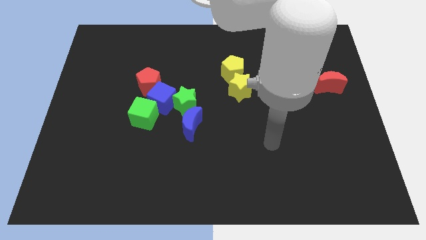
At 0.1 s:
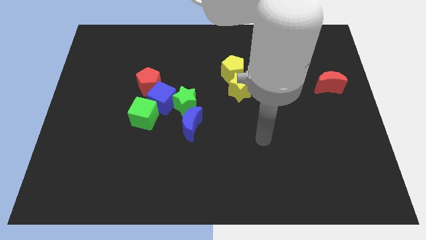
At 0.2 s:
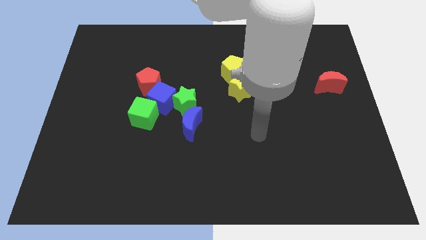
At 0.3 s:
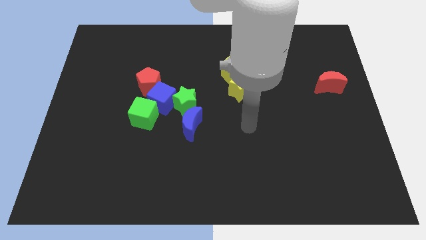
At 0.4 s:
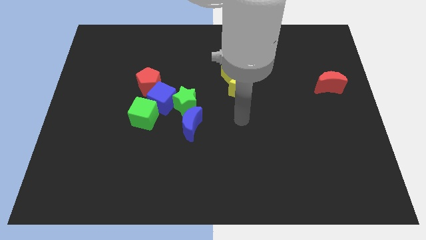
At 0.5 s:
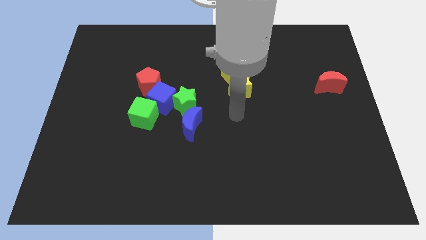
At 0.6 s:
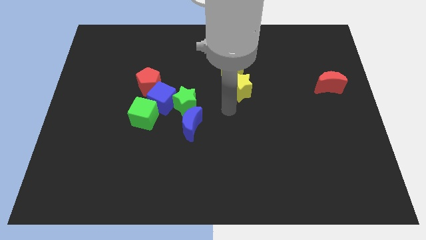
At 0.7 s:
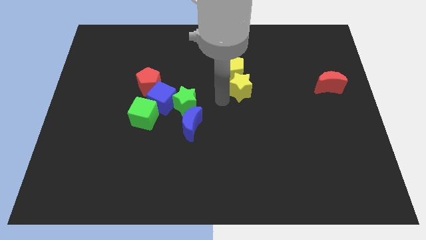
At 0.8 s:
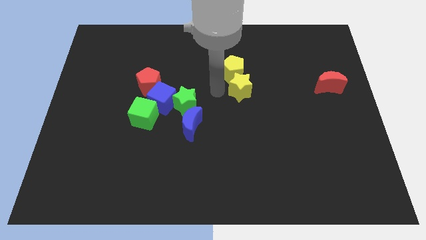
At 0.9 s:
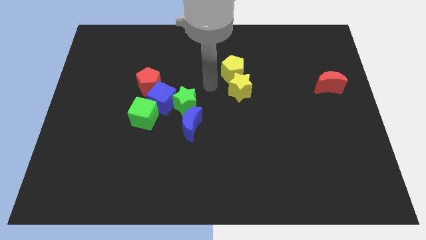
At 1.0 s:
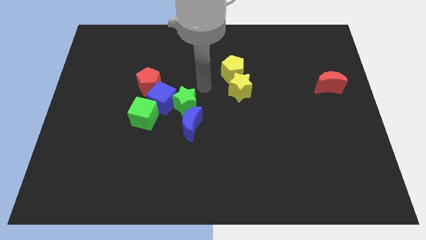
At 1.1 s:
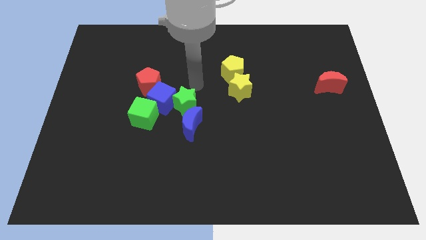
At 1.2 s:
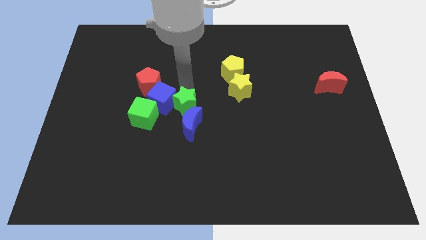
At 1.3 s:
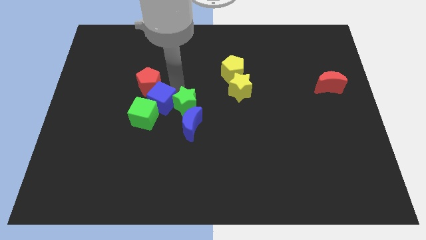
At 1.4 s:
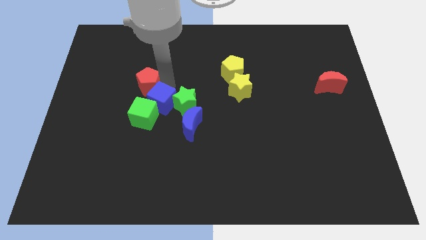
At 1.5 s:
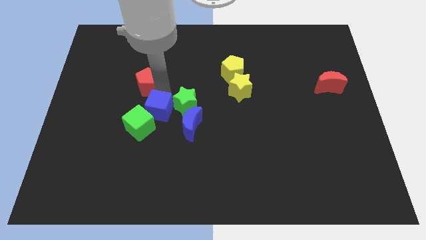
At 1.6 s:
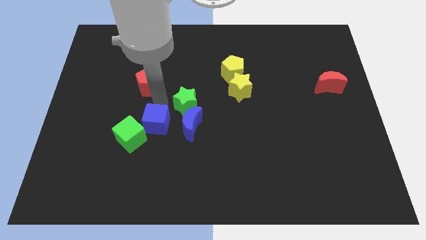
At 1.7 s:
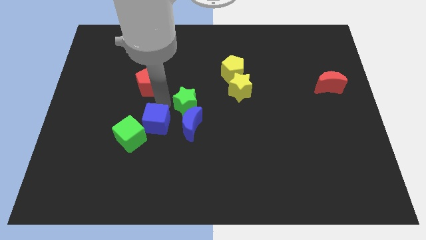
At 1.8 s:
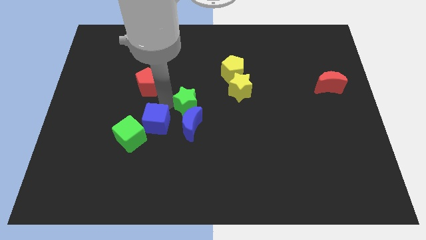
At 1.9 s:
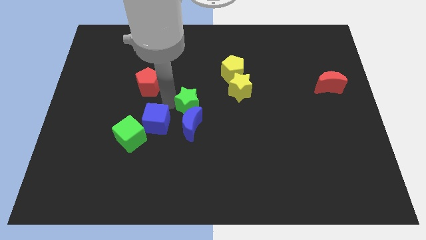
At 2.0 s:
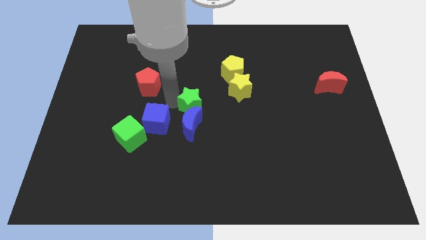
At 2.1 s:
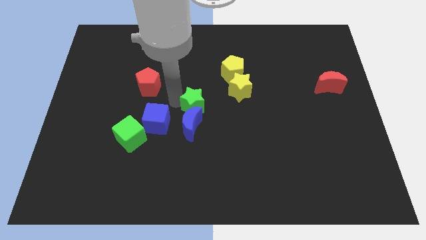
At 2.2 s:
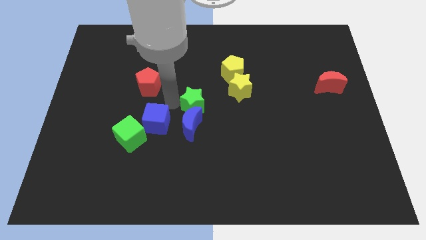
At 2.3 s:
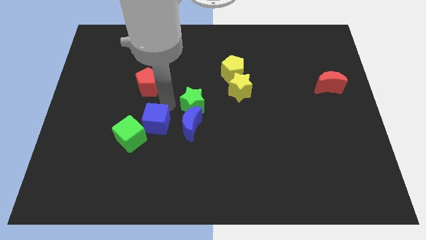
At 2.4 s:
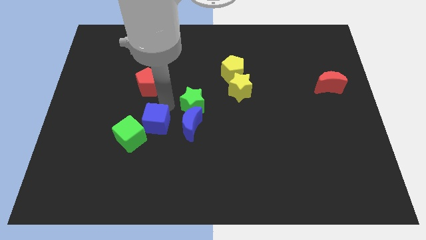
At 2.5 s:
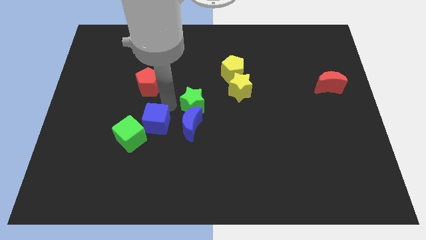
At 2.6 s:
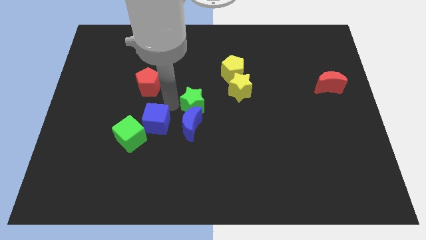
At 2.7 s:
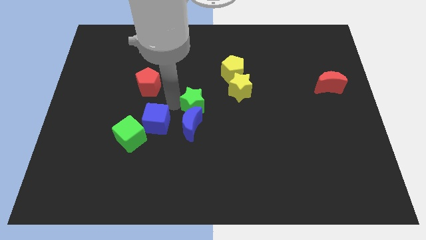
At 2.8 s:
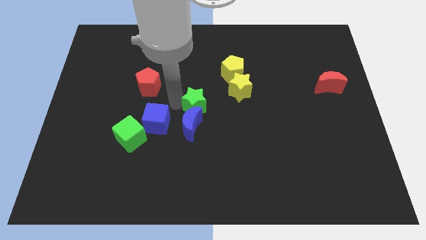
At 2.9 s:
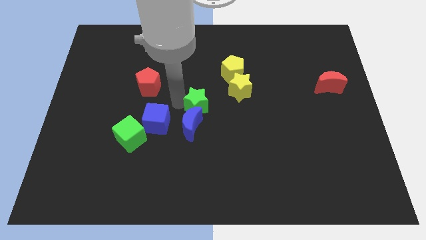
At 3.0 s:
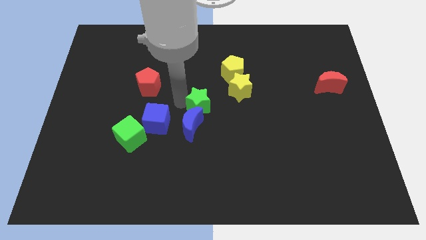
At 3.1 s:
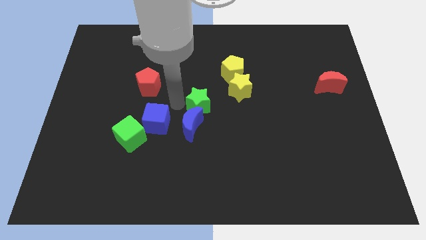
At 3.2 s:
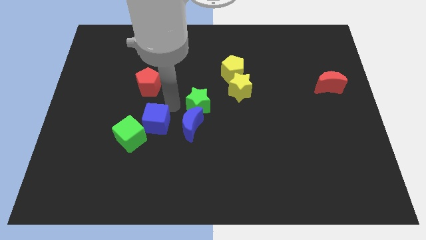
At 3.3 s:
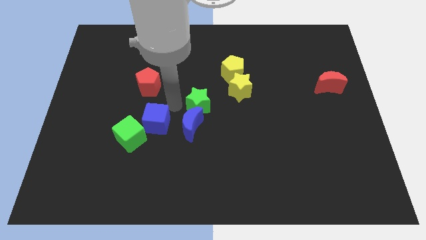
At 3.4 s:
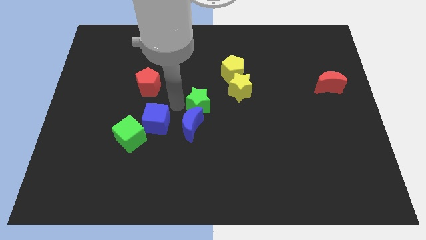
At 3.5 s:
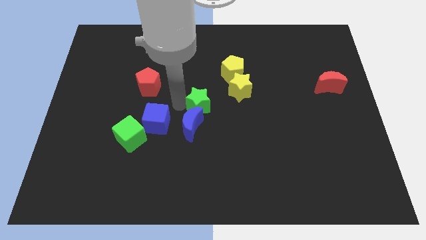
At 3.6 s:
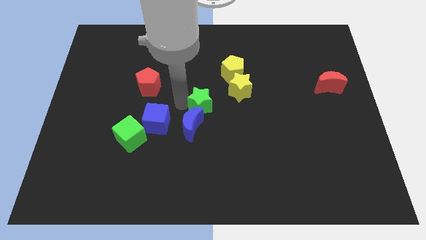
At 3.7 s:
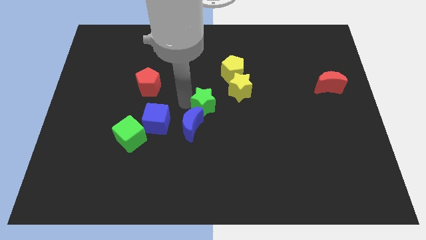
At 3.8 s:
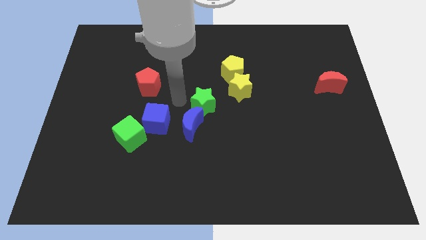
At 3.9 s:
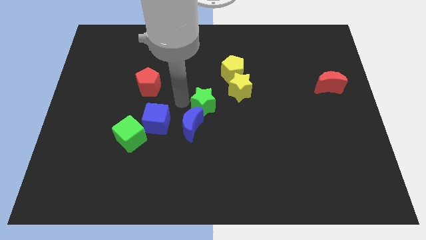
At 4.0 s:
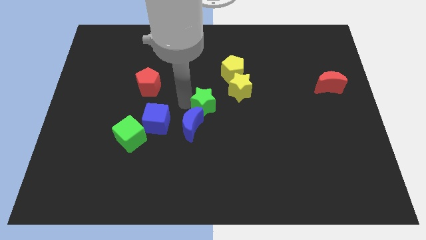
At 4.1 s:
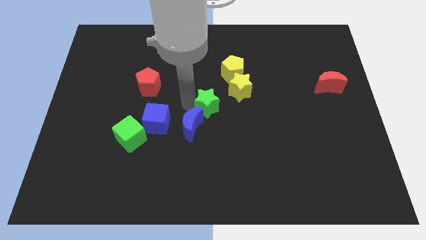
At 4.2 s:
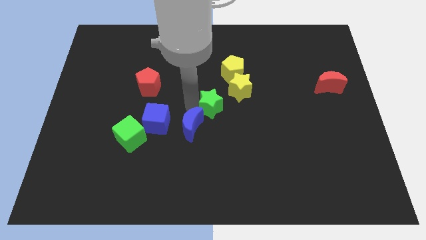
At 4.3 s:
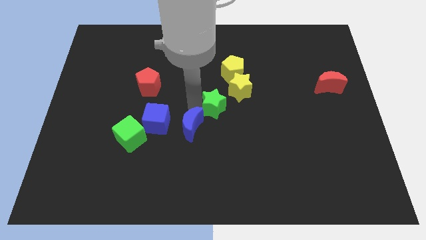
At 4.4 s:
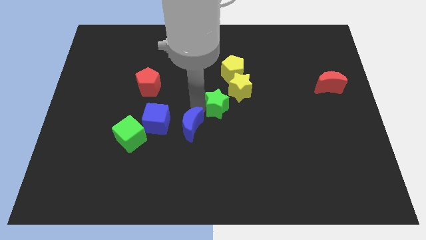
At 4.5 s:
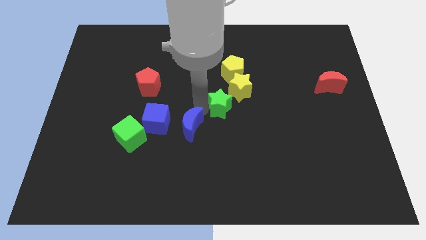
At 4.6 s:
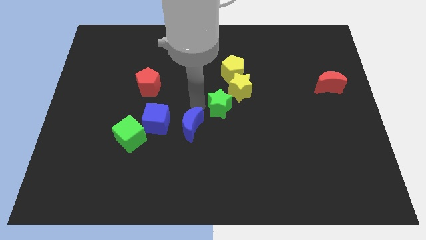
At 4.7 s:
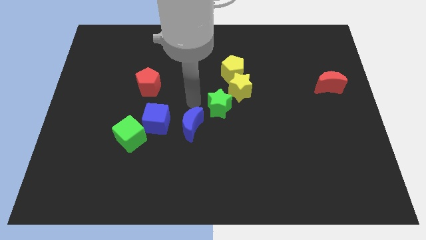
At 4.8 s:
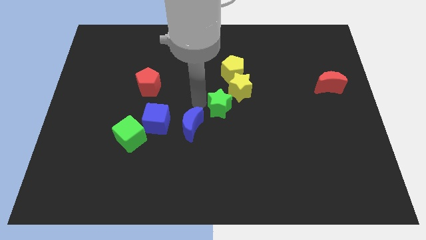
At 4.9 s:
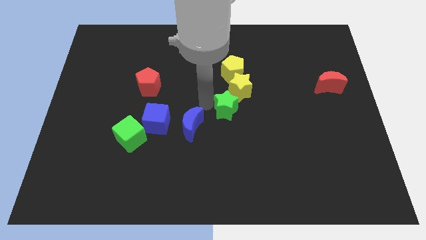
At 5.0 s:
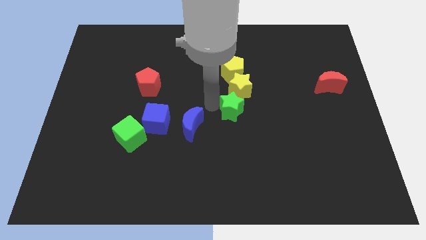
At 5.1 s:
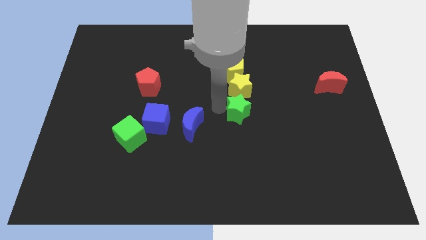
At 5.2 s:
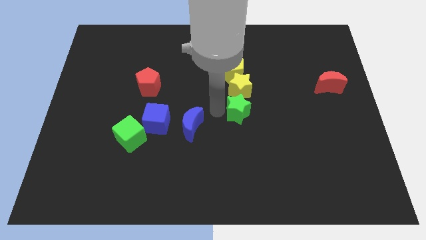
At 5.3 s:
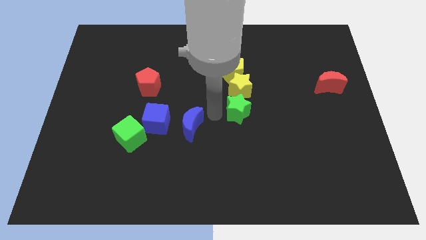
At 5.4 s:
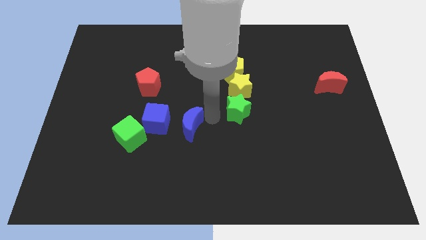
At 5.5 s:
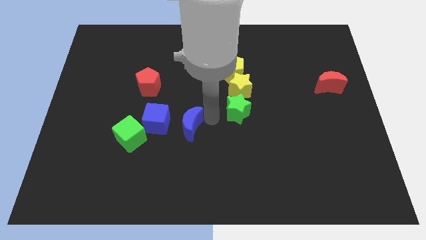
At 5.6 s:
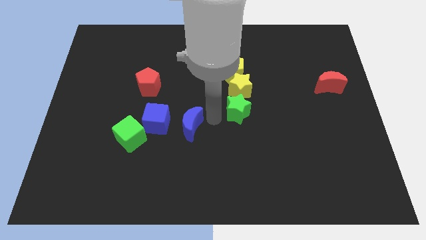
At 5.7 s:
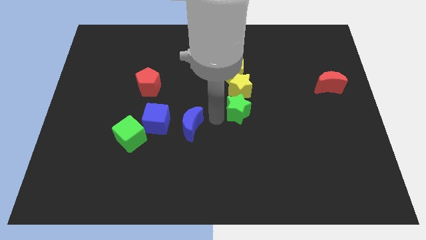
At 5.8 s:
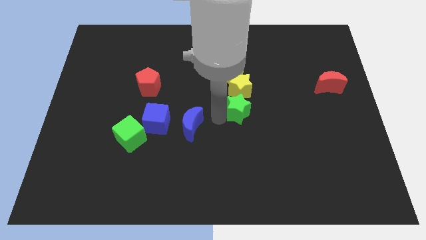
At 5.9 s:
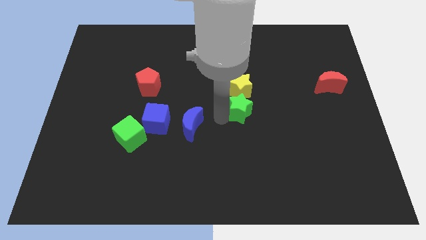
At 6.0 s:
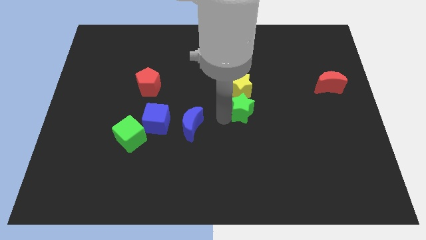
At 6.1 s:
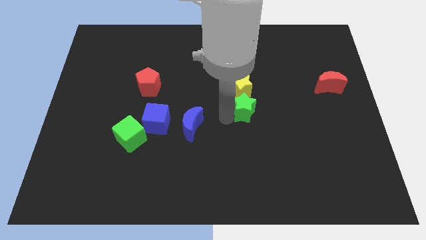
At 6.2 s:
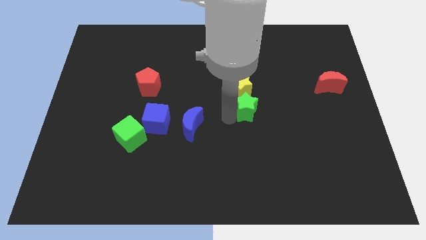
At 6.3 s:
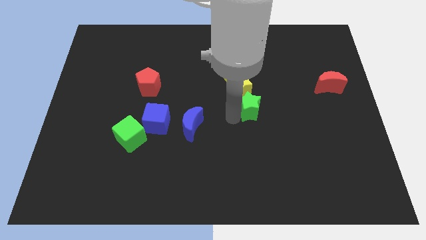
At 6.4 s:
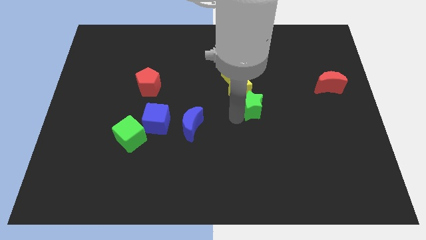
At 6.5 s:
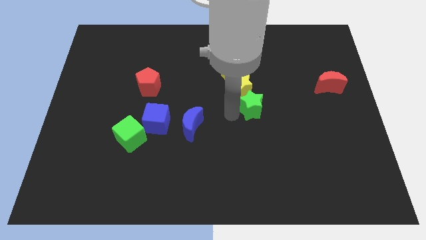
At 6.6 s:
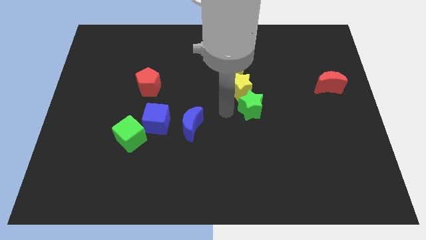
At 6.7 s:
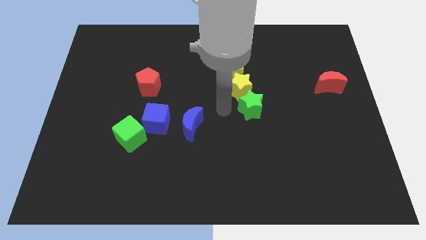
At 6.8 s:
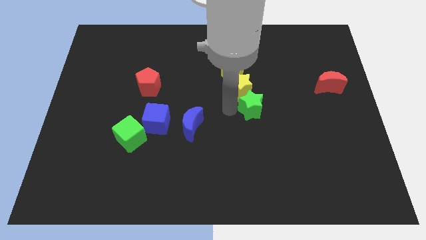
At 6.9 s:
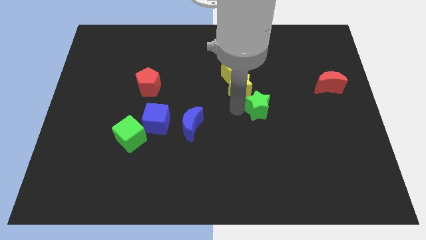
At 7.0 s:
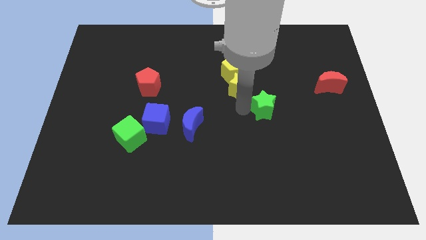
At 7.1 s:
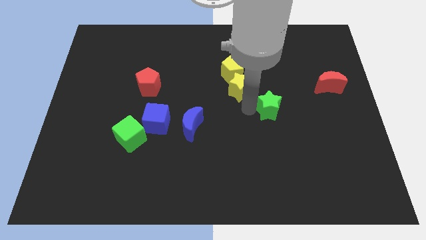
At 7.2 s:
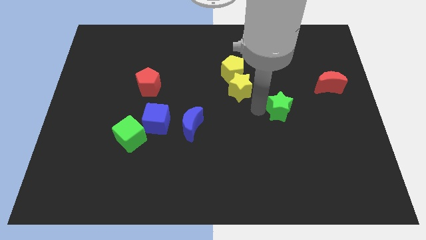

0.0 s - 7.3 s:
move the green star right

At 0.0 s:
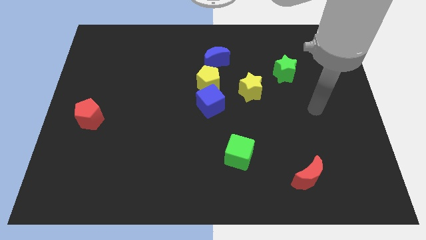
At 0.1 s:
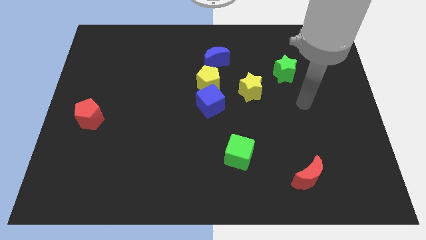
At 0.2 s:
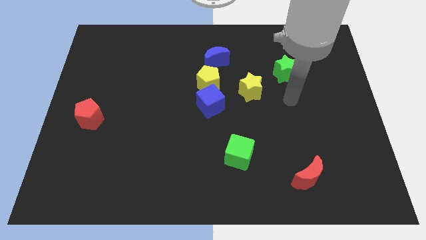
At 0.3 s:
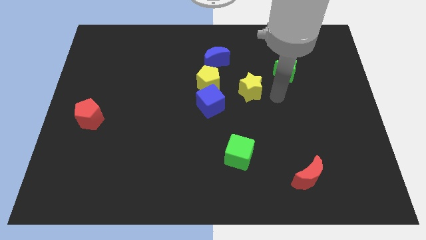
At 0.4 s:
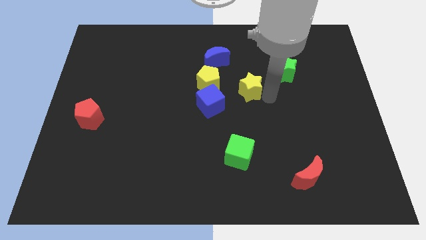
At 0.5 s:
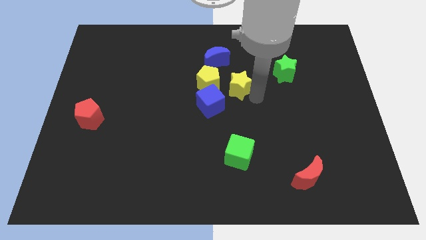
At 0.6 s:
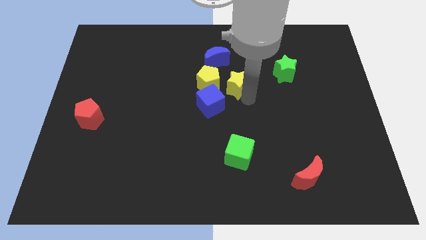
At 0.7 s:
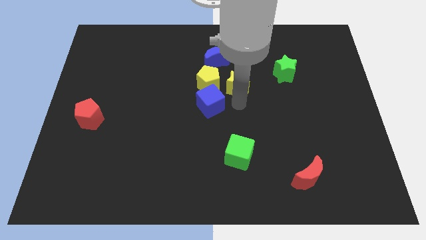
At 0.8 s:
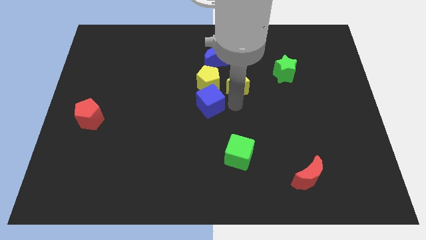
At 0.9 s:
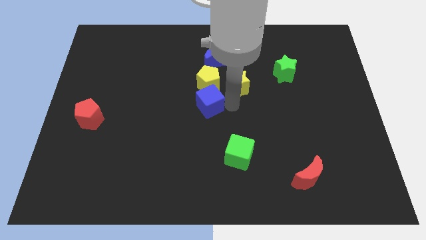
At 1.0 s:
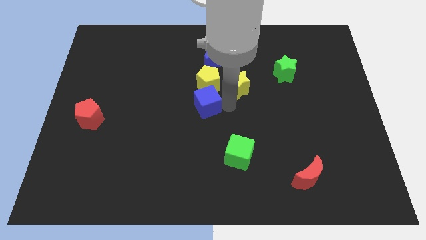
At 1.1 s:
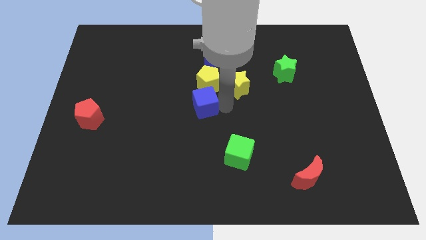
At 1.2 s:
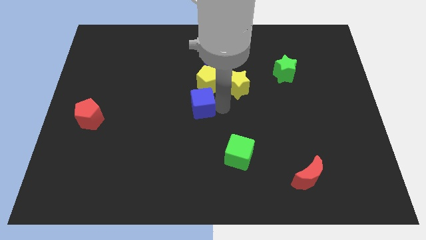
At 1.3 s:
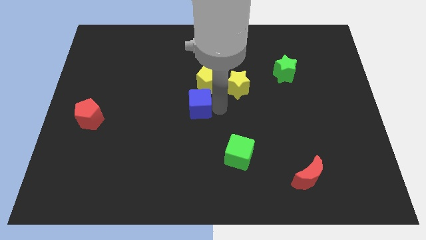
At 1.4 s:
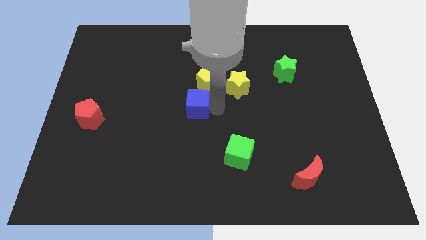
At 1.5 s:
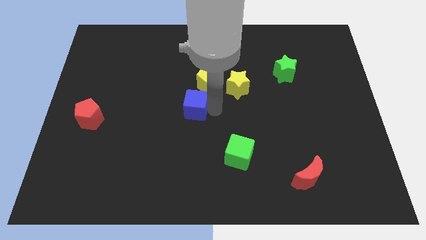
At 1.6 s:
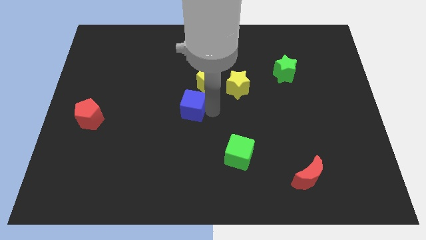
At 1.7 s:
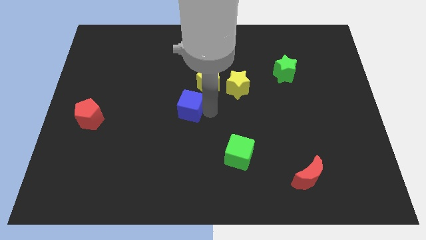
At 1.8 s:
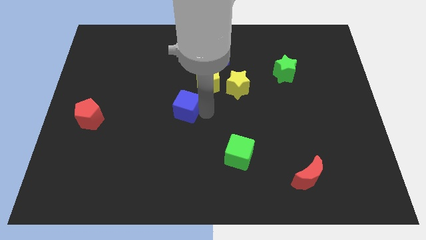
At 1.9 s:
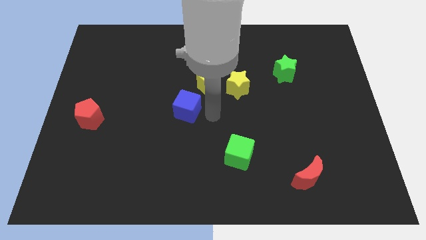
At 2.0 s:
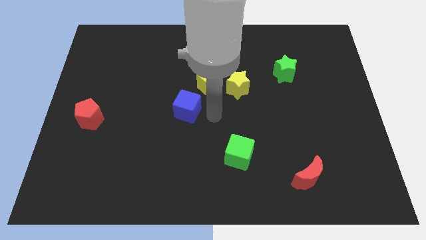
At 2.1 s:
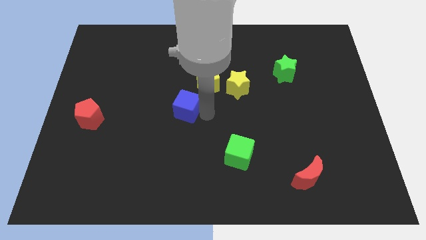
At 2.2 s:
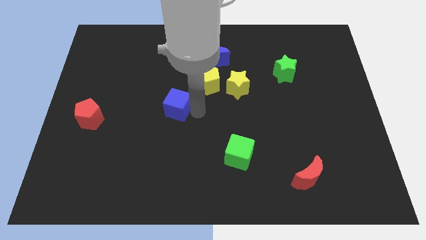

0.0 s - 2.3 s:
move the blue cube to the left a little
